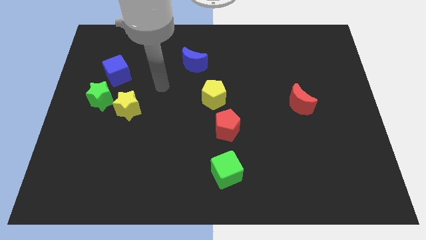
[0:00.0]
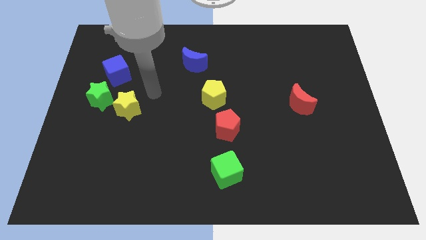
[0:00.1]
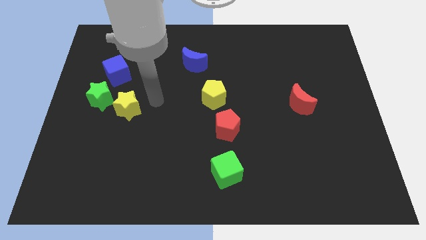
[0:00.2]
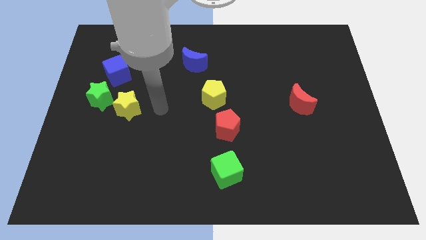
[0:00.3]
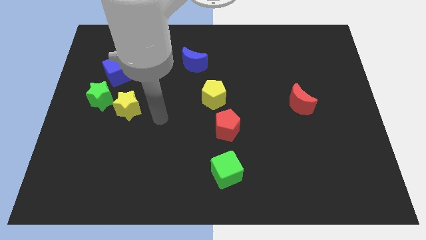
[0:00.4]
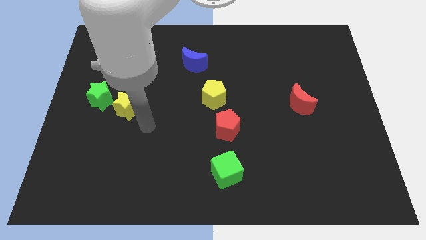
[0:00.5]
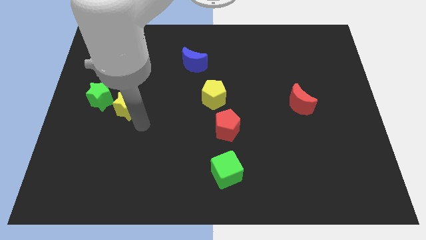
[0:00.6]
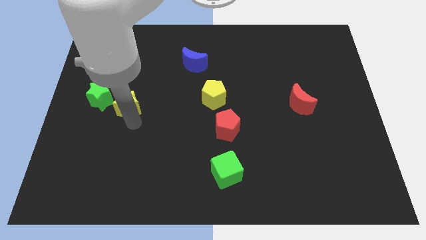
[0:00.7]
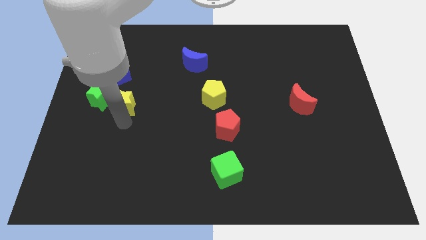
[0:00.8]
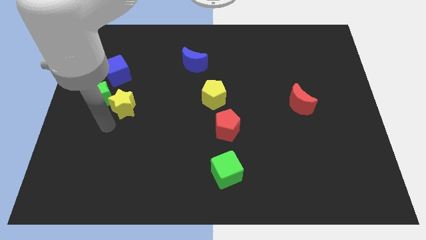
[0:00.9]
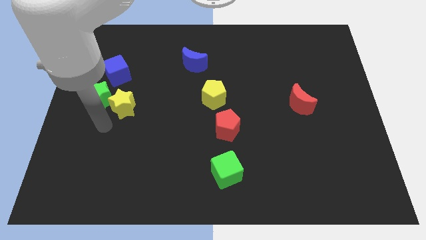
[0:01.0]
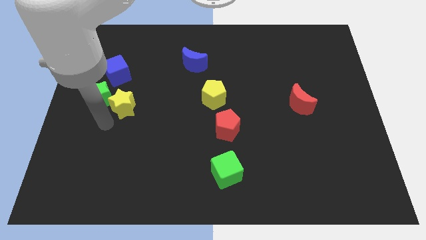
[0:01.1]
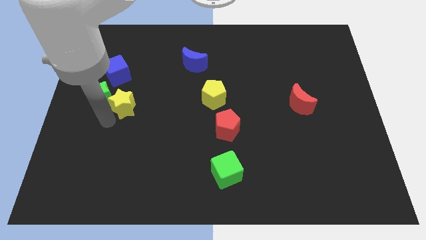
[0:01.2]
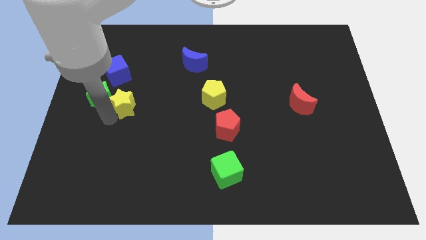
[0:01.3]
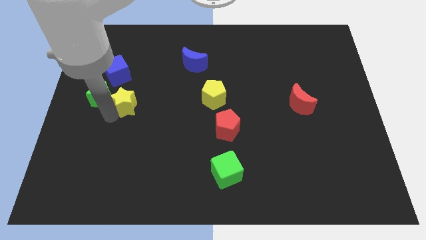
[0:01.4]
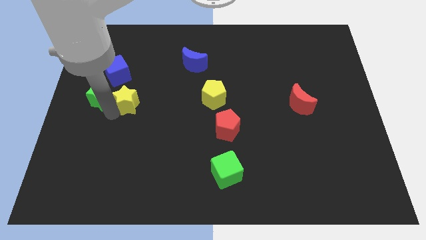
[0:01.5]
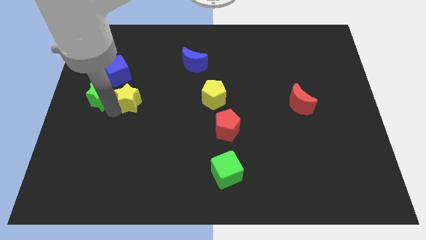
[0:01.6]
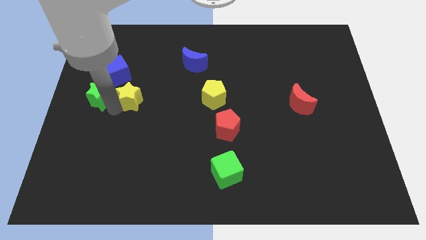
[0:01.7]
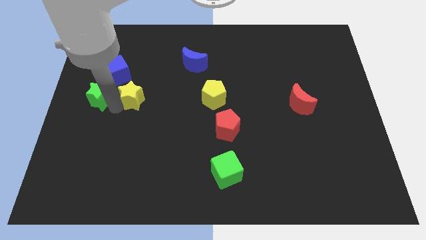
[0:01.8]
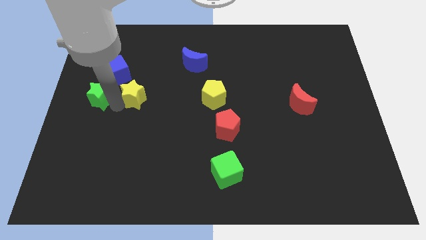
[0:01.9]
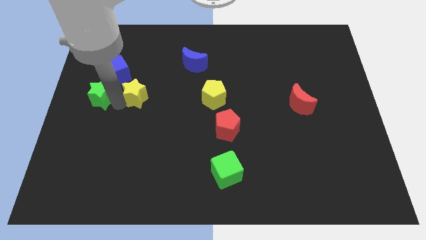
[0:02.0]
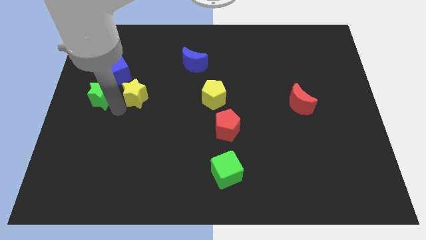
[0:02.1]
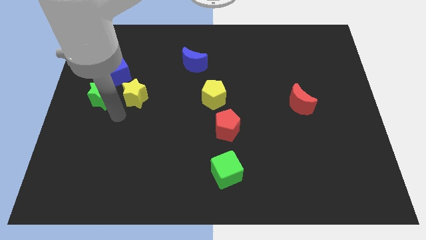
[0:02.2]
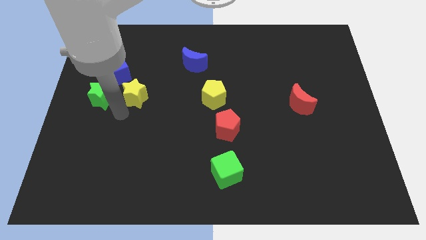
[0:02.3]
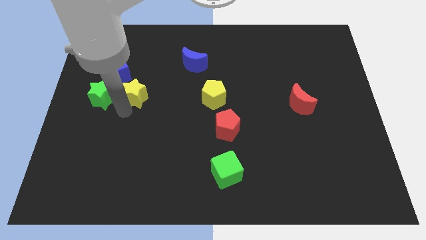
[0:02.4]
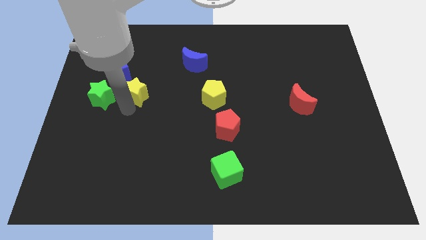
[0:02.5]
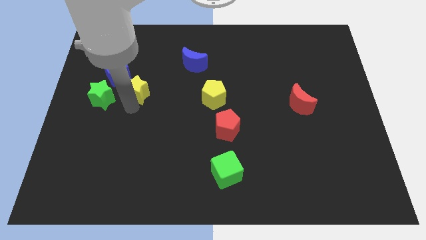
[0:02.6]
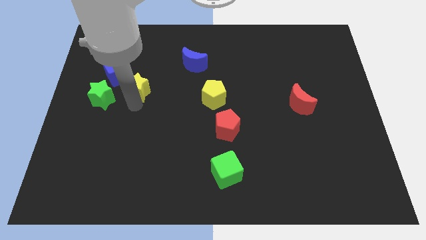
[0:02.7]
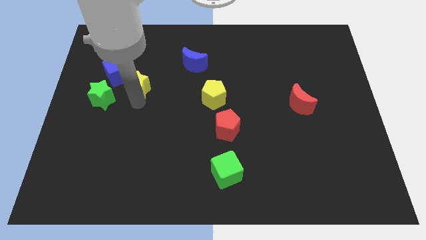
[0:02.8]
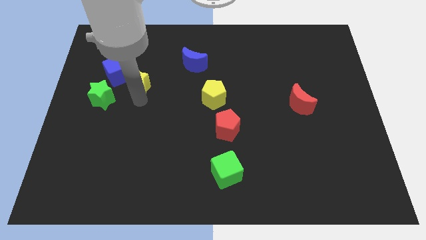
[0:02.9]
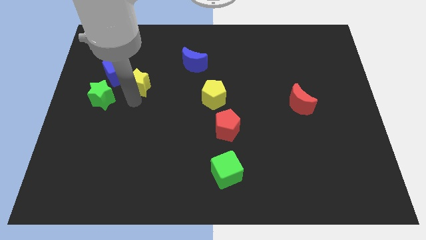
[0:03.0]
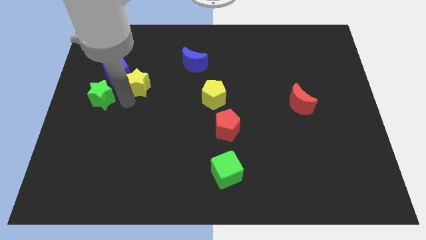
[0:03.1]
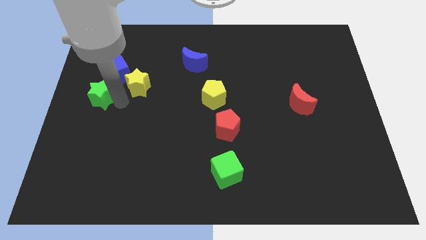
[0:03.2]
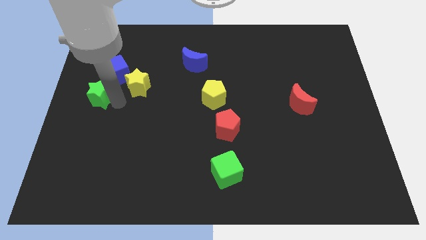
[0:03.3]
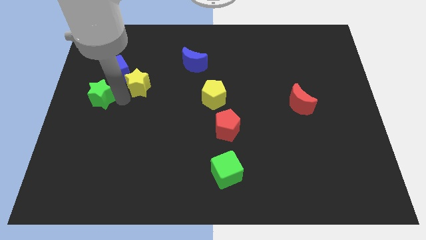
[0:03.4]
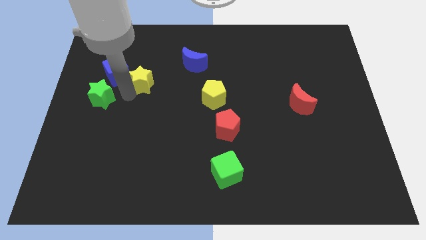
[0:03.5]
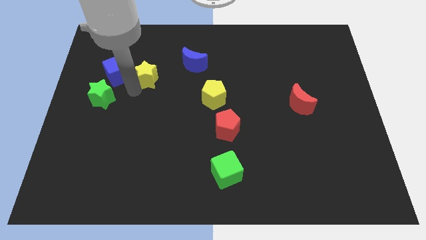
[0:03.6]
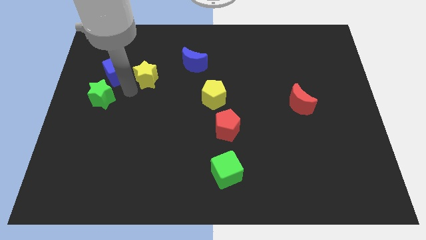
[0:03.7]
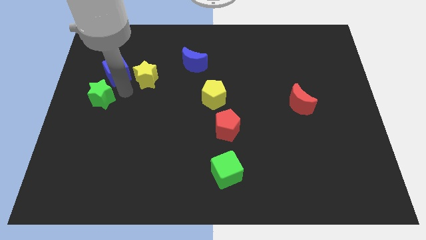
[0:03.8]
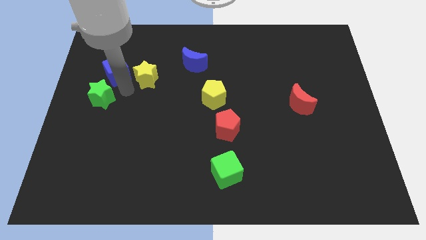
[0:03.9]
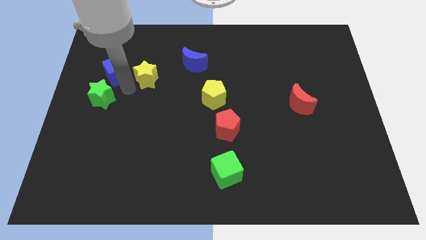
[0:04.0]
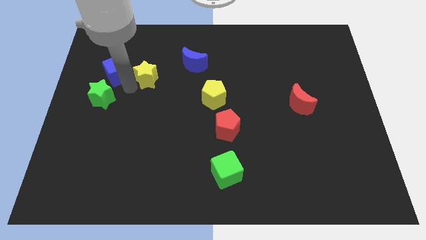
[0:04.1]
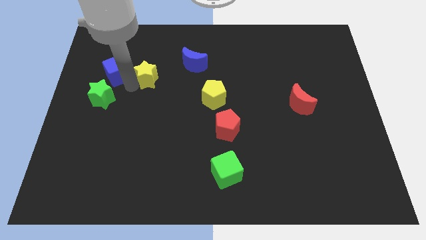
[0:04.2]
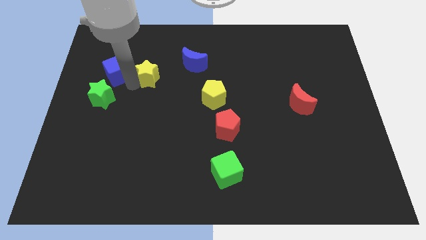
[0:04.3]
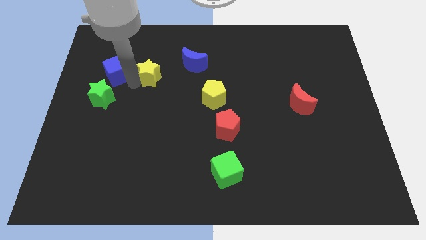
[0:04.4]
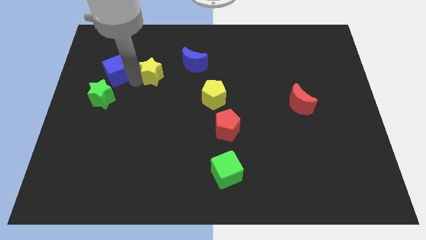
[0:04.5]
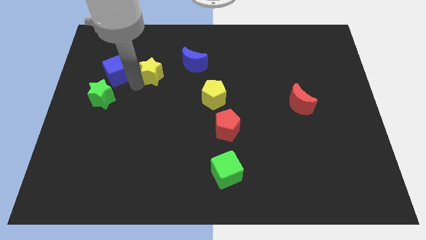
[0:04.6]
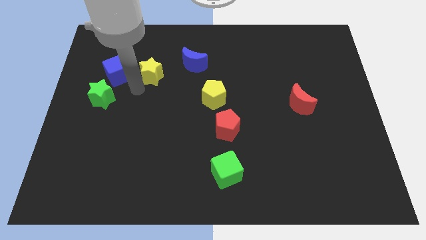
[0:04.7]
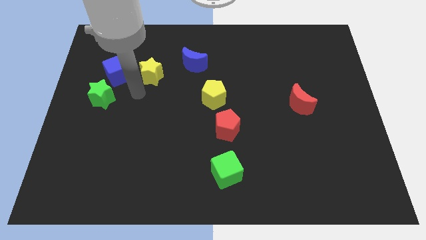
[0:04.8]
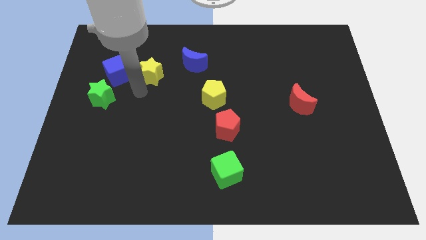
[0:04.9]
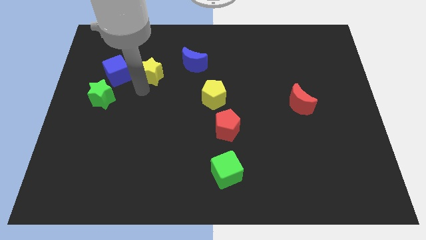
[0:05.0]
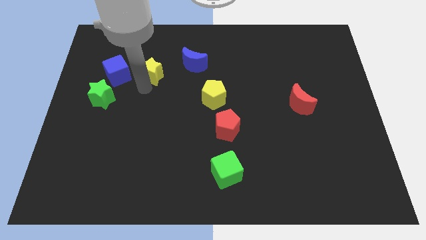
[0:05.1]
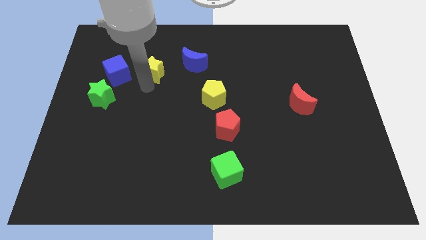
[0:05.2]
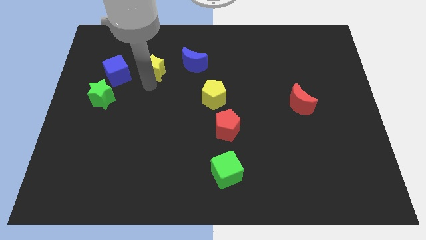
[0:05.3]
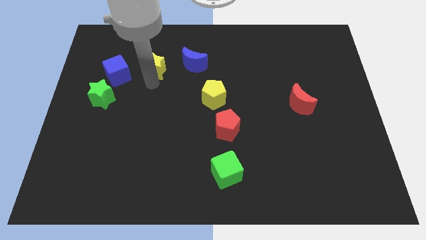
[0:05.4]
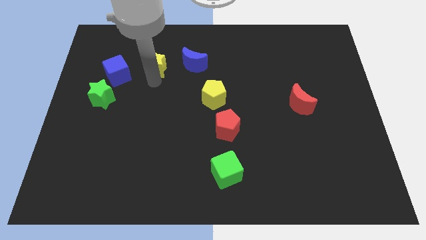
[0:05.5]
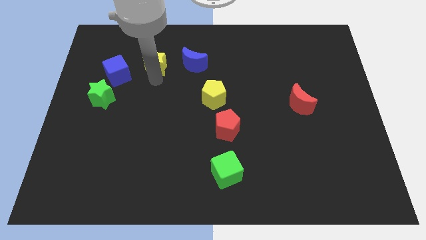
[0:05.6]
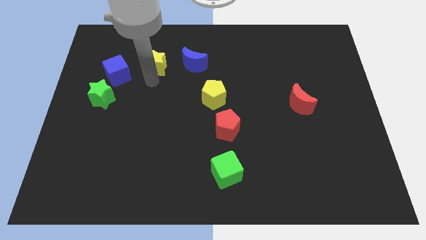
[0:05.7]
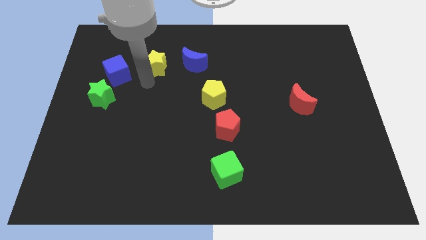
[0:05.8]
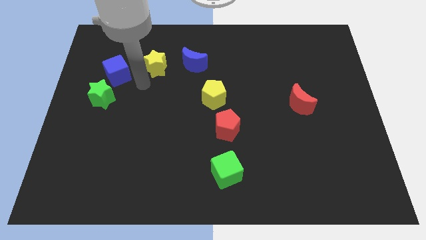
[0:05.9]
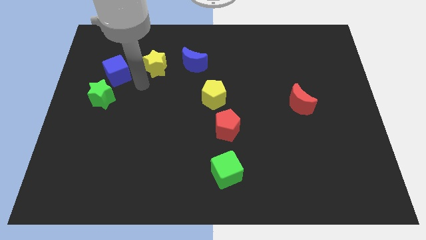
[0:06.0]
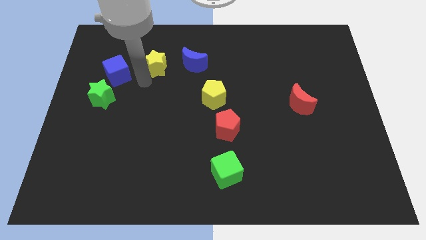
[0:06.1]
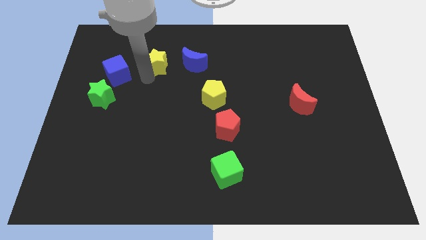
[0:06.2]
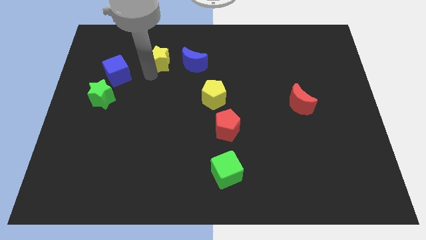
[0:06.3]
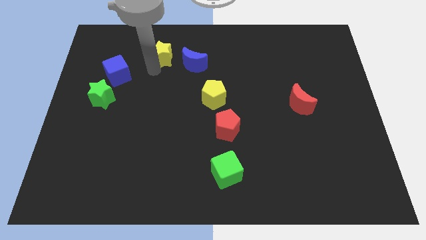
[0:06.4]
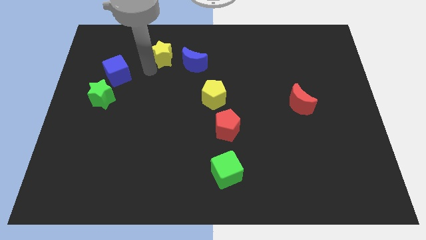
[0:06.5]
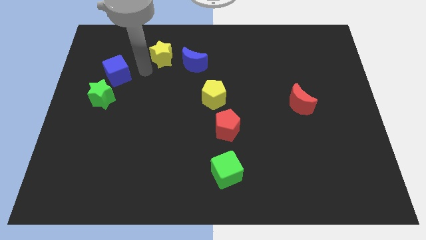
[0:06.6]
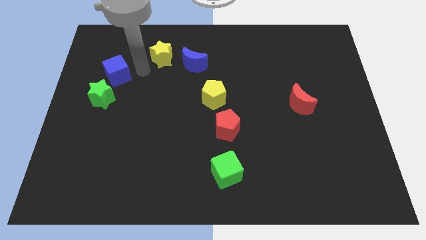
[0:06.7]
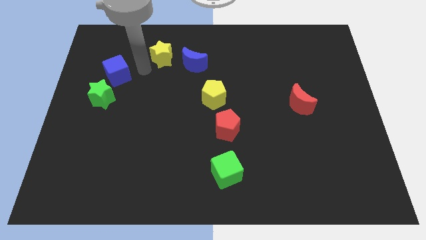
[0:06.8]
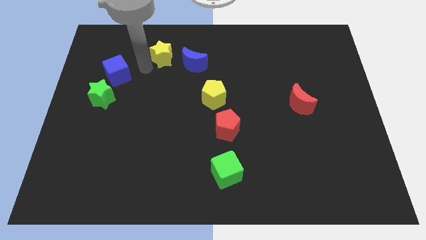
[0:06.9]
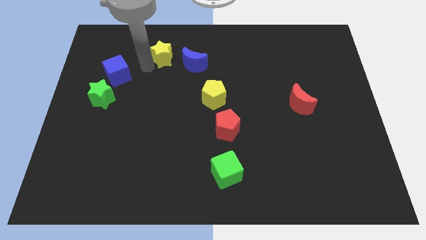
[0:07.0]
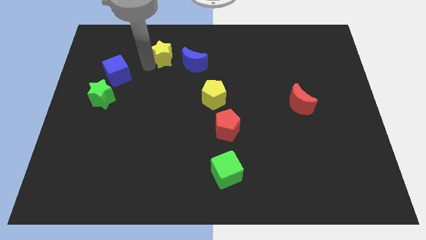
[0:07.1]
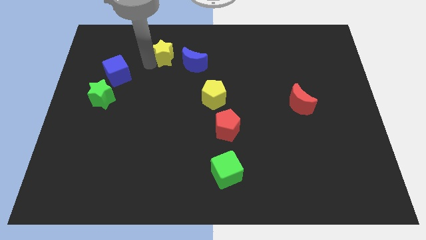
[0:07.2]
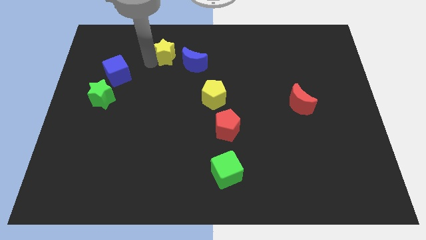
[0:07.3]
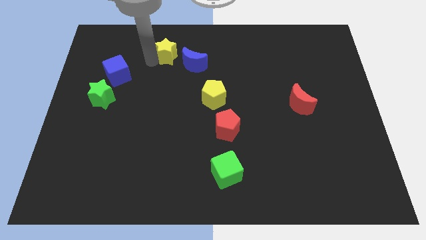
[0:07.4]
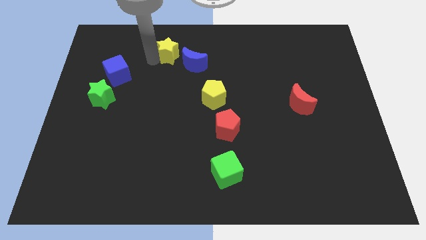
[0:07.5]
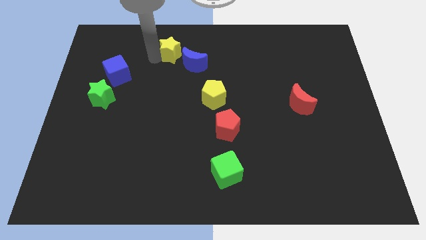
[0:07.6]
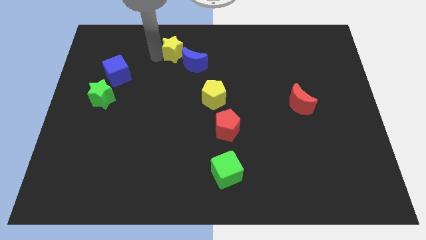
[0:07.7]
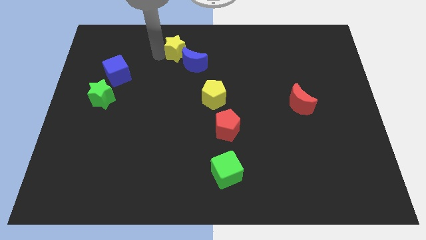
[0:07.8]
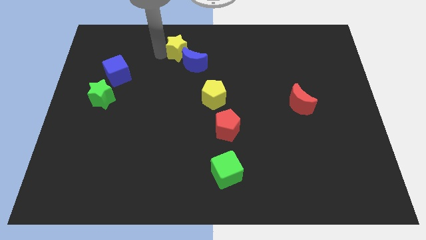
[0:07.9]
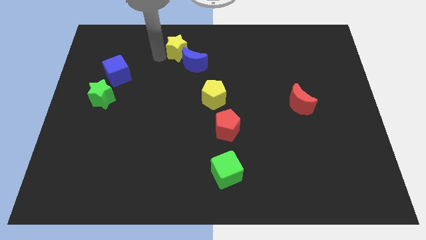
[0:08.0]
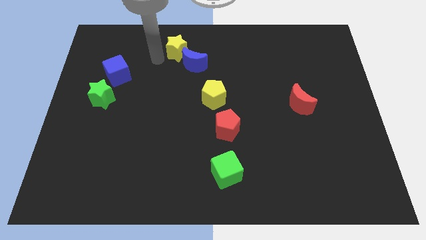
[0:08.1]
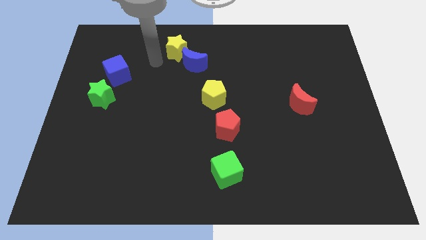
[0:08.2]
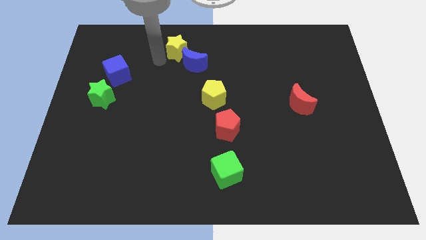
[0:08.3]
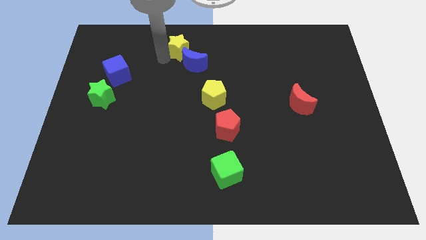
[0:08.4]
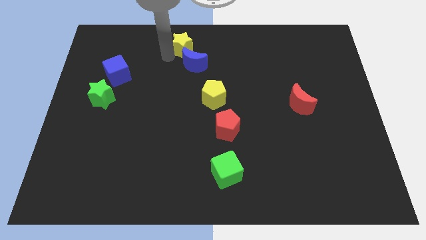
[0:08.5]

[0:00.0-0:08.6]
put the yellow star to the top
